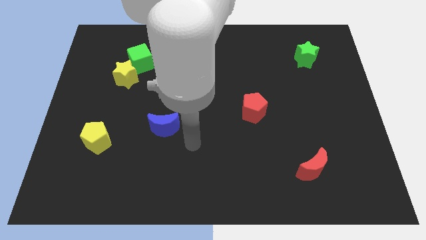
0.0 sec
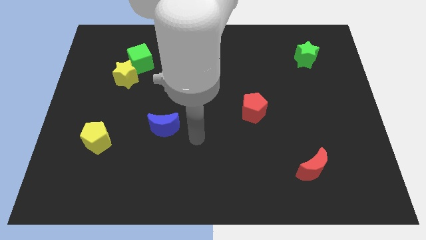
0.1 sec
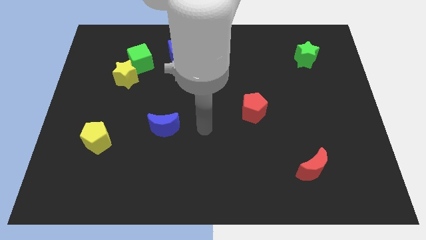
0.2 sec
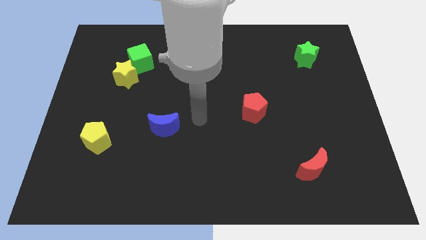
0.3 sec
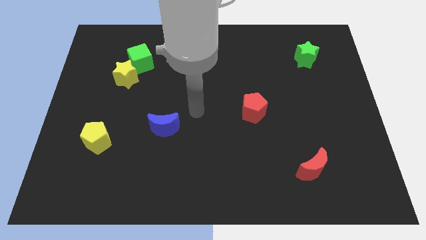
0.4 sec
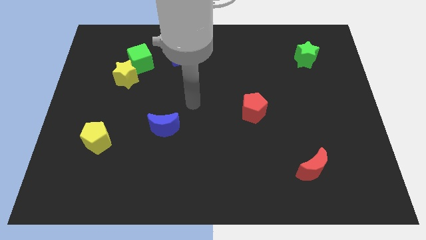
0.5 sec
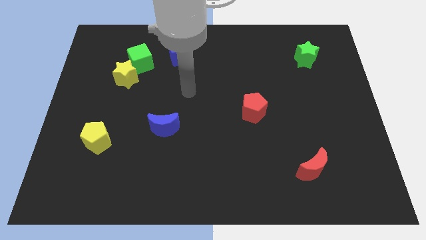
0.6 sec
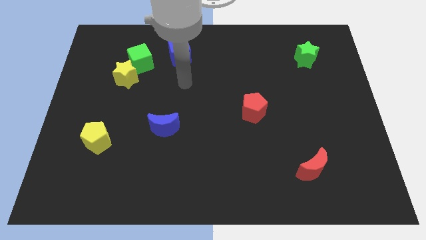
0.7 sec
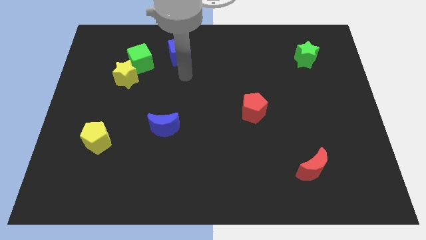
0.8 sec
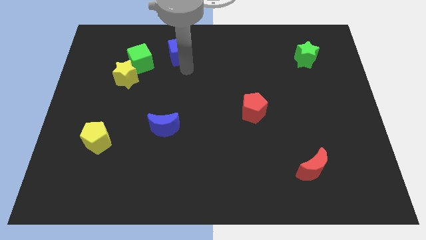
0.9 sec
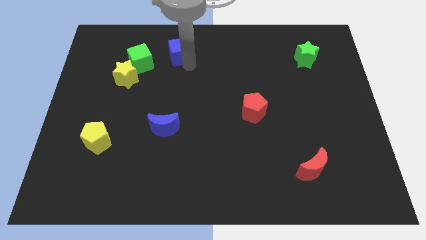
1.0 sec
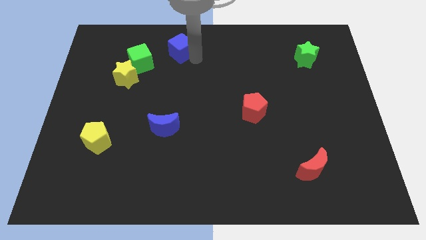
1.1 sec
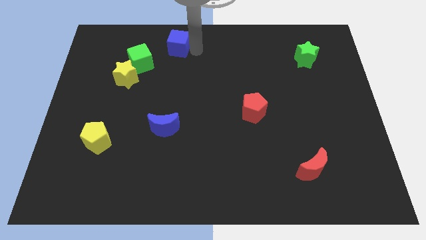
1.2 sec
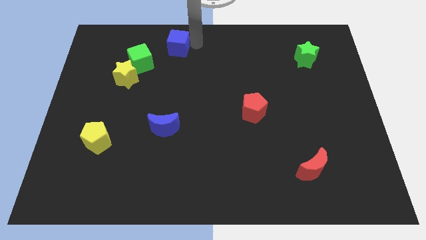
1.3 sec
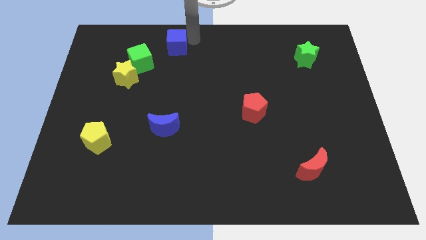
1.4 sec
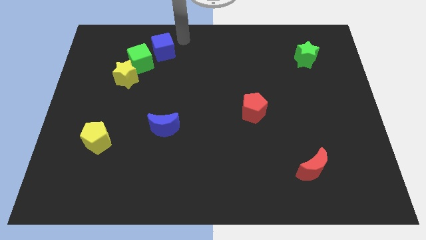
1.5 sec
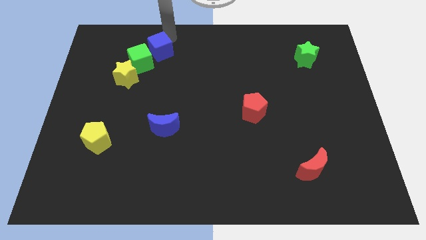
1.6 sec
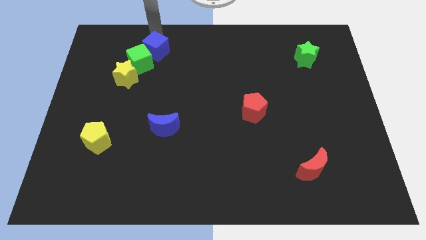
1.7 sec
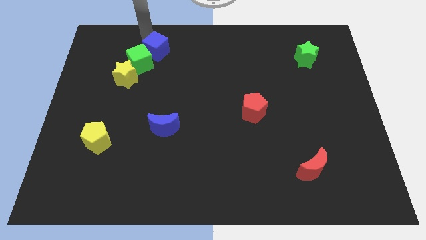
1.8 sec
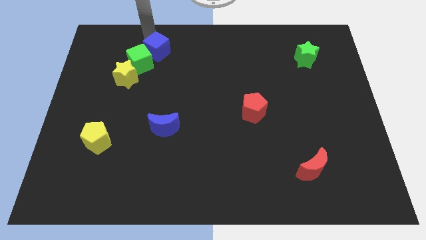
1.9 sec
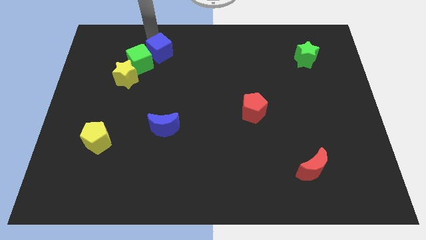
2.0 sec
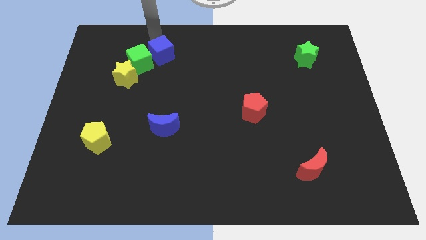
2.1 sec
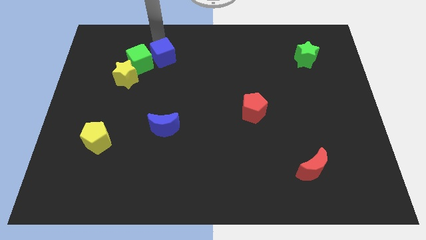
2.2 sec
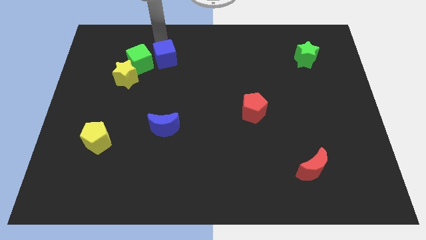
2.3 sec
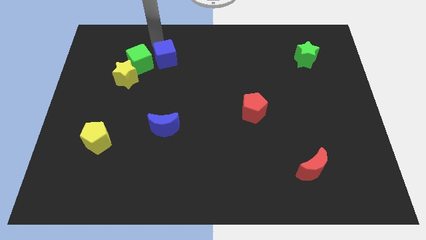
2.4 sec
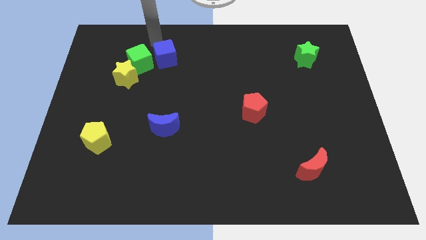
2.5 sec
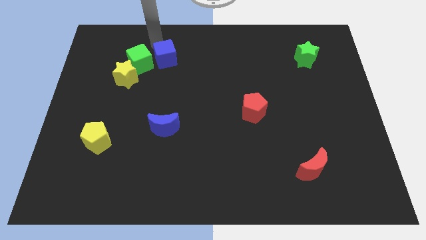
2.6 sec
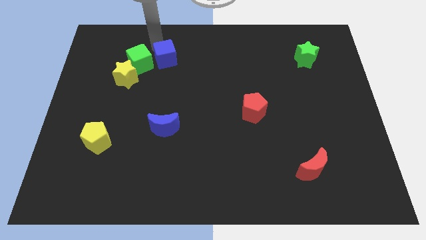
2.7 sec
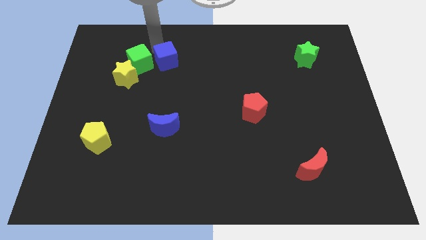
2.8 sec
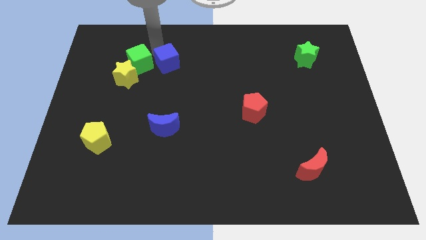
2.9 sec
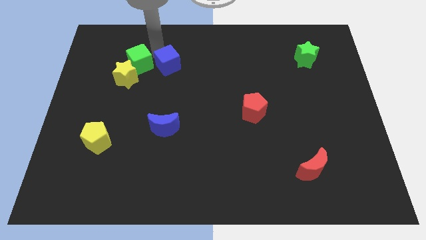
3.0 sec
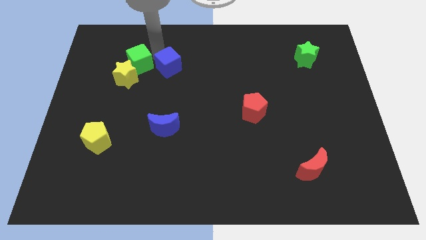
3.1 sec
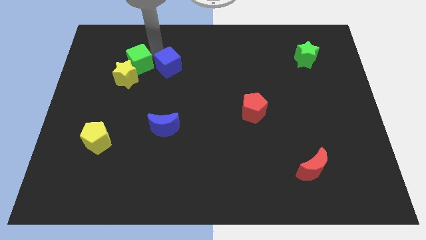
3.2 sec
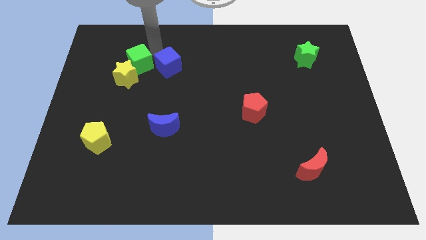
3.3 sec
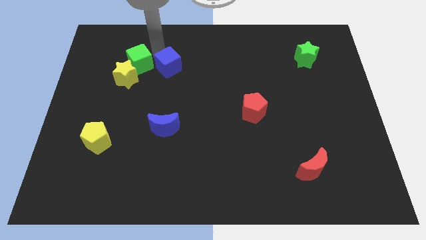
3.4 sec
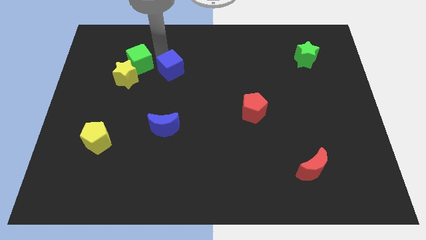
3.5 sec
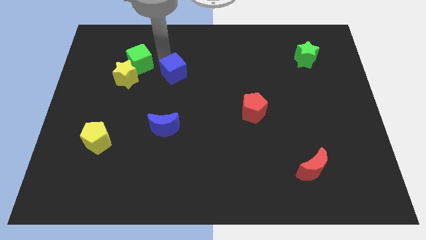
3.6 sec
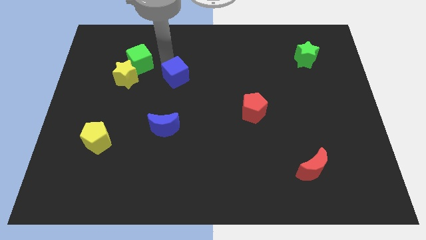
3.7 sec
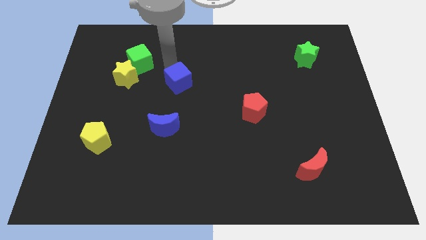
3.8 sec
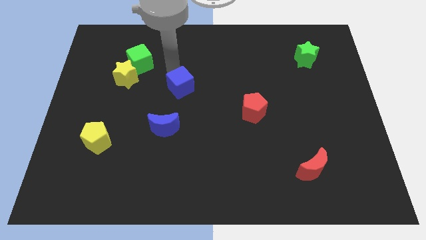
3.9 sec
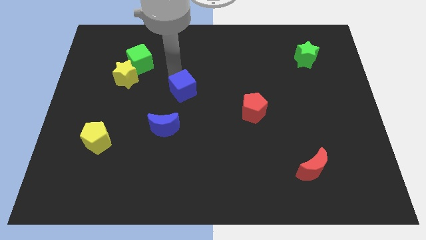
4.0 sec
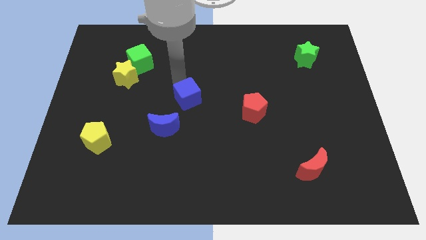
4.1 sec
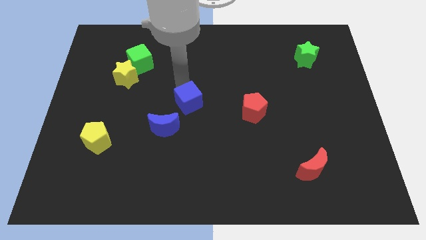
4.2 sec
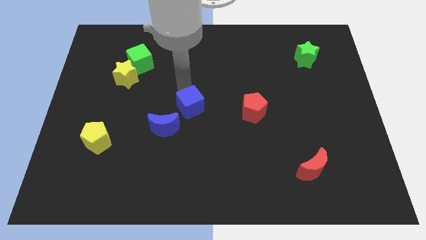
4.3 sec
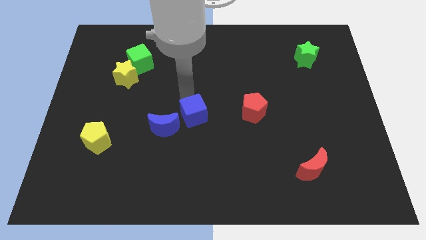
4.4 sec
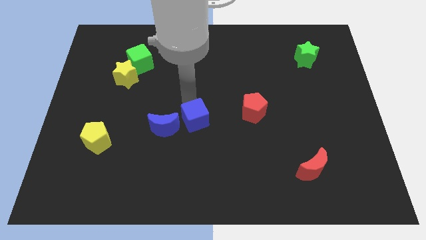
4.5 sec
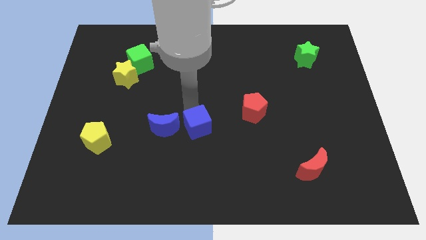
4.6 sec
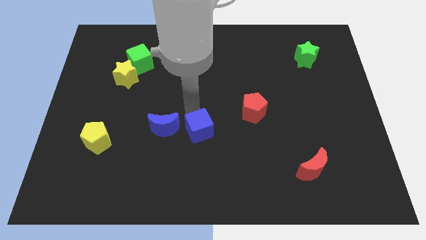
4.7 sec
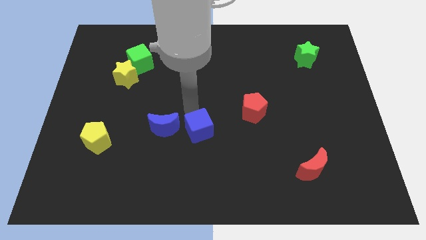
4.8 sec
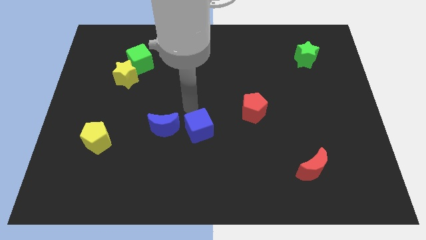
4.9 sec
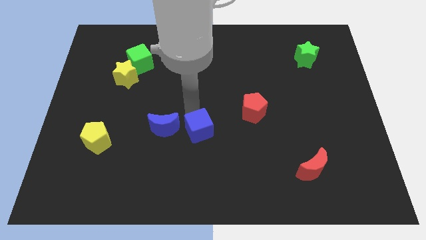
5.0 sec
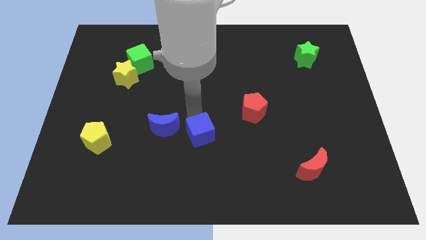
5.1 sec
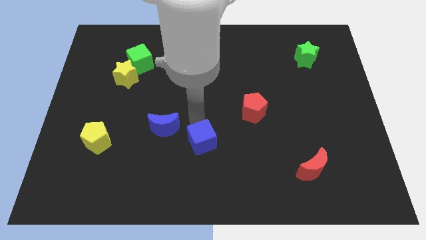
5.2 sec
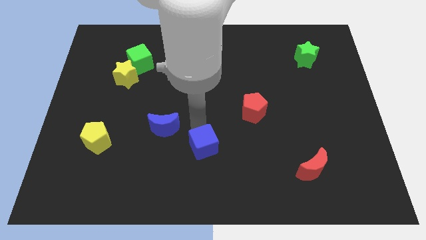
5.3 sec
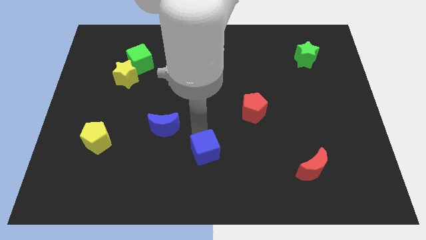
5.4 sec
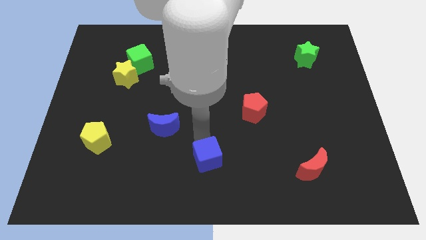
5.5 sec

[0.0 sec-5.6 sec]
push the blue cube to the bottom

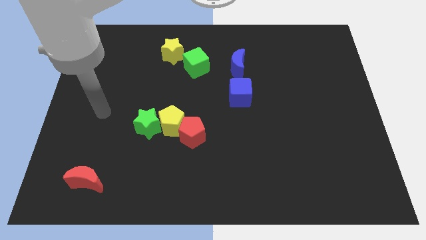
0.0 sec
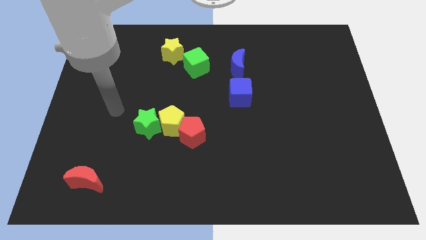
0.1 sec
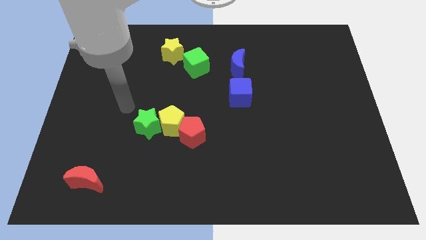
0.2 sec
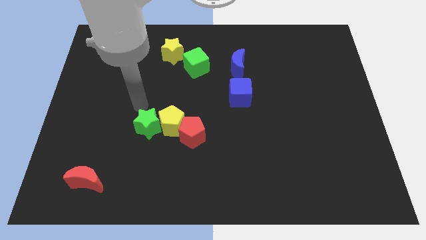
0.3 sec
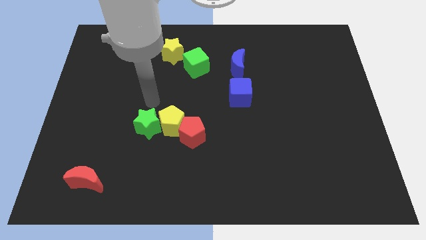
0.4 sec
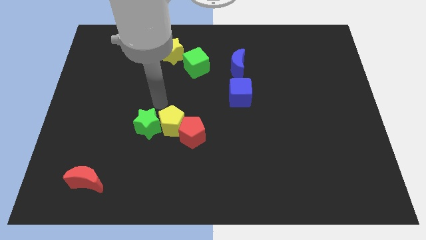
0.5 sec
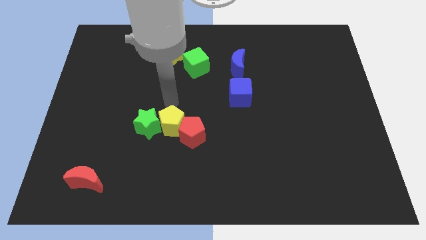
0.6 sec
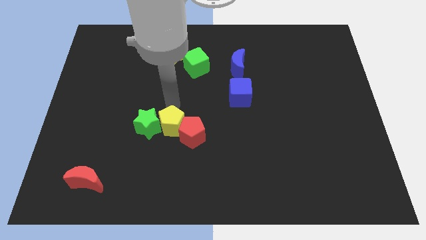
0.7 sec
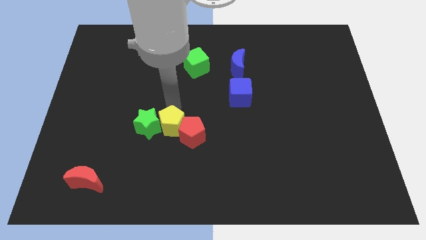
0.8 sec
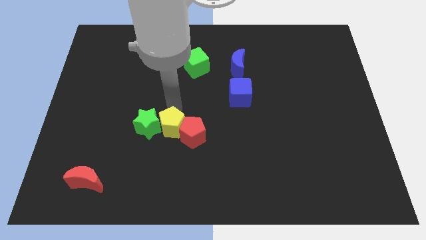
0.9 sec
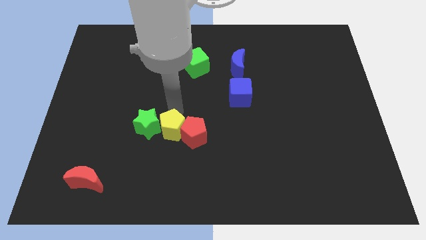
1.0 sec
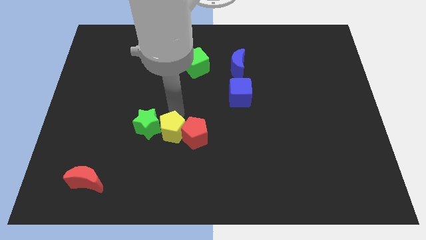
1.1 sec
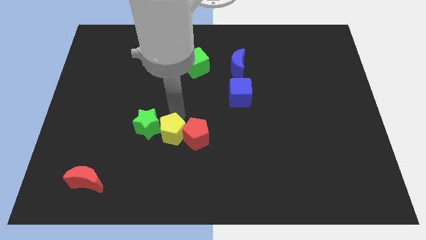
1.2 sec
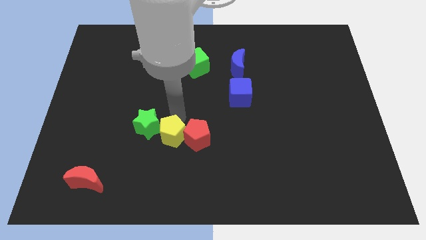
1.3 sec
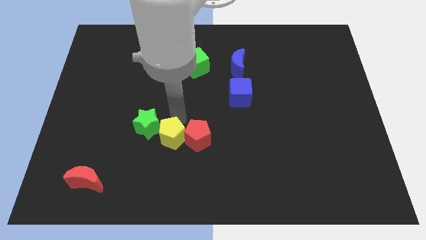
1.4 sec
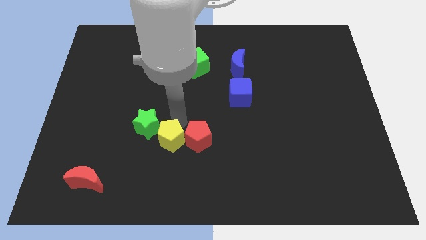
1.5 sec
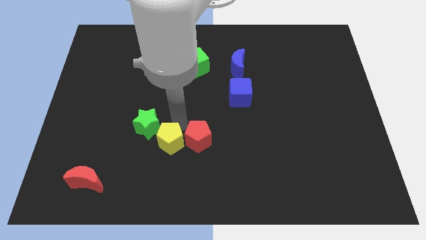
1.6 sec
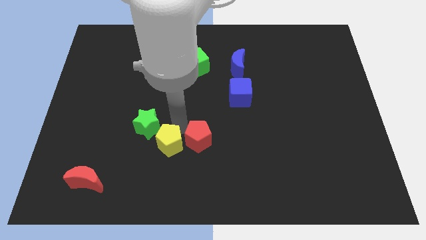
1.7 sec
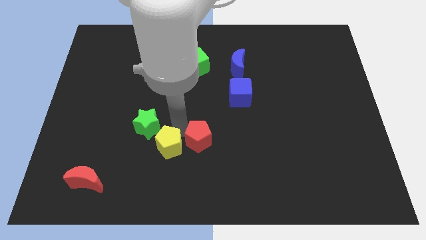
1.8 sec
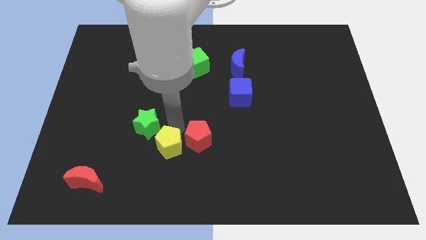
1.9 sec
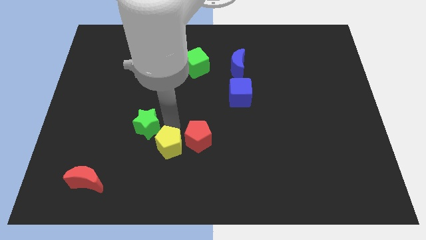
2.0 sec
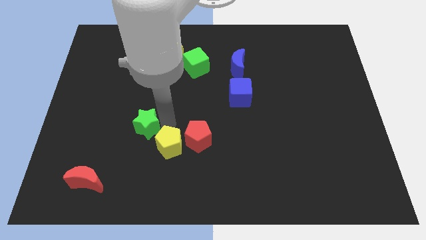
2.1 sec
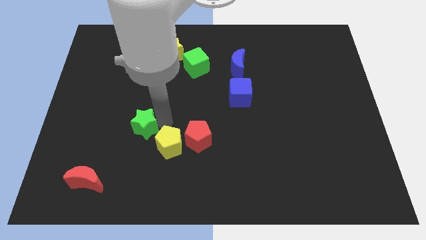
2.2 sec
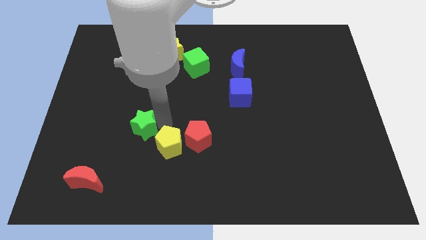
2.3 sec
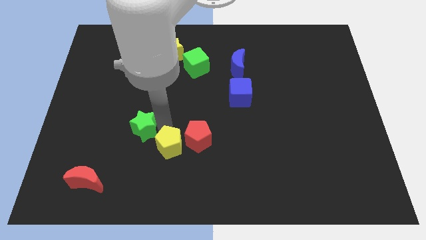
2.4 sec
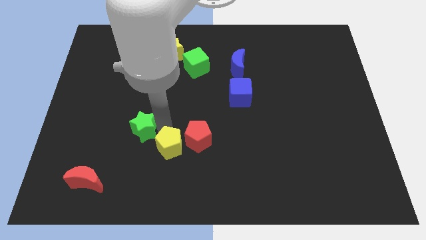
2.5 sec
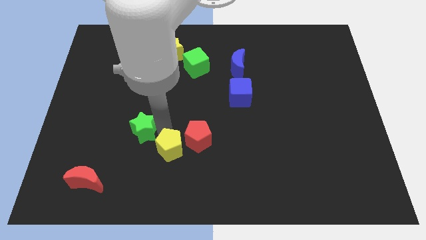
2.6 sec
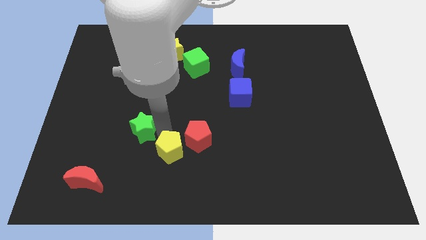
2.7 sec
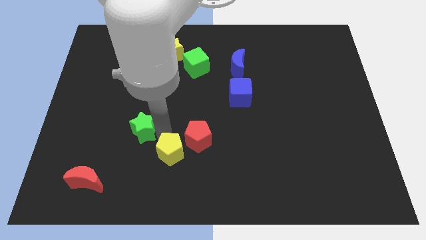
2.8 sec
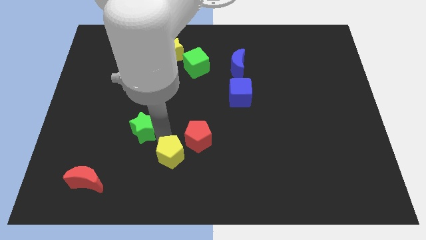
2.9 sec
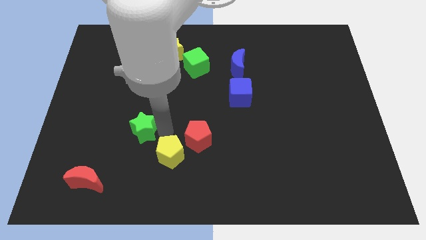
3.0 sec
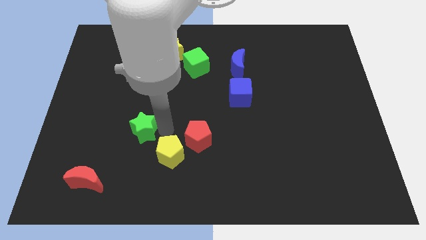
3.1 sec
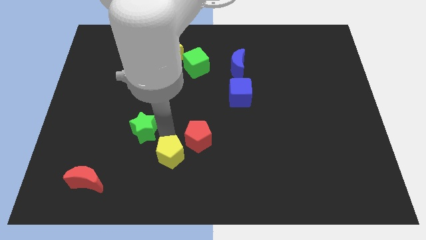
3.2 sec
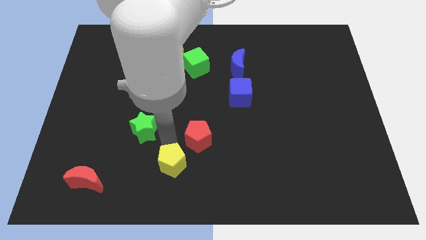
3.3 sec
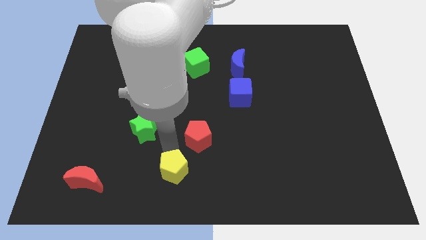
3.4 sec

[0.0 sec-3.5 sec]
slide the yellow pentagon to the bottom
